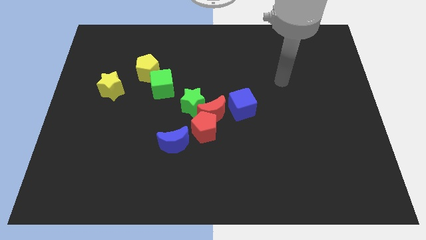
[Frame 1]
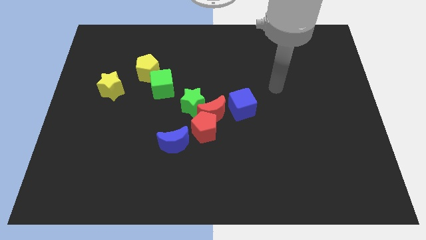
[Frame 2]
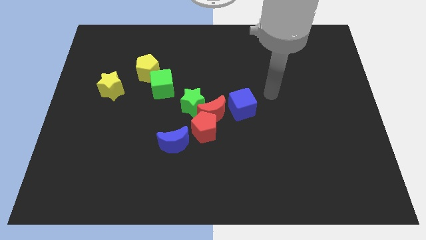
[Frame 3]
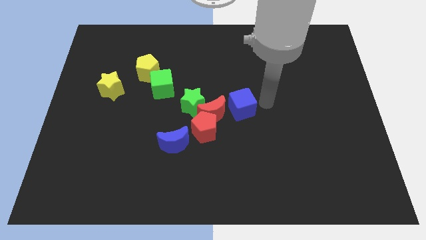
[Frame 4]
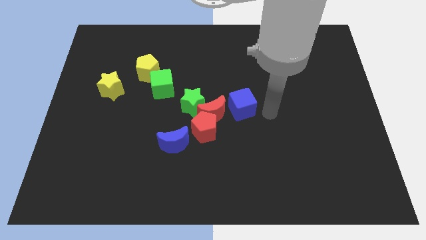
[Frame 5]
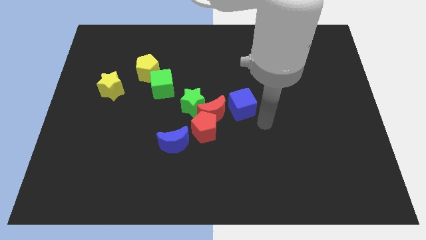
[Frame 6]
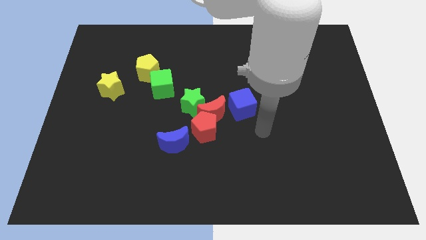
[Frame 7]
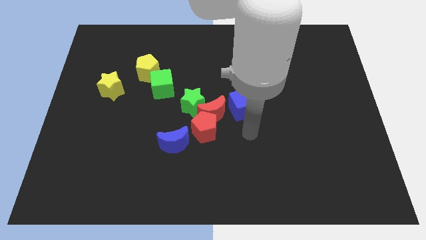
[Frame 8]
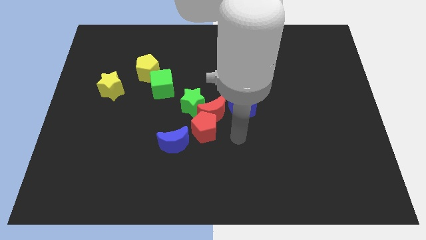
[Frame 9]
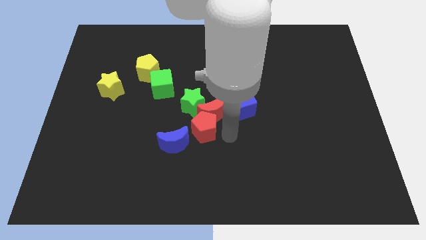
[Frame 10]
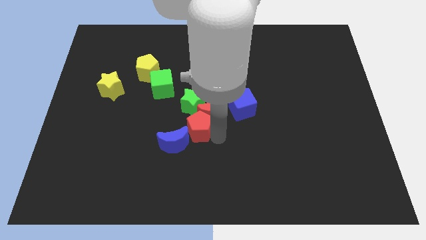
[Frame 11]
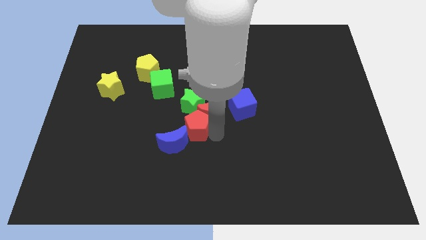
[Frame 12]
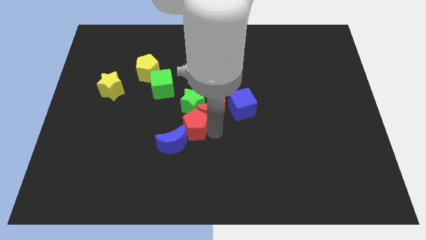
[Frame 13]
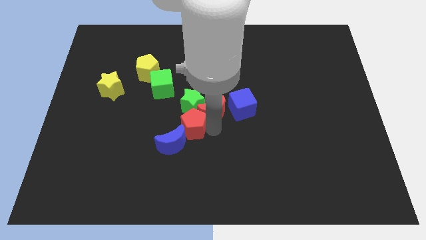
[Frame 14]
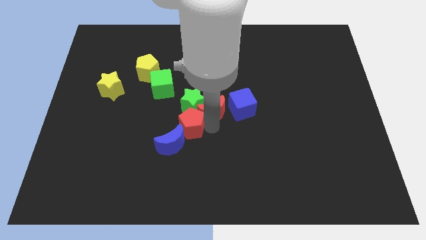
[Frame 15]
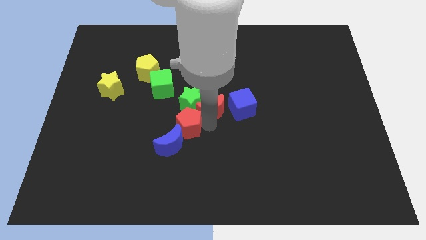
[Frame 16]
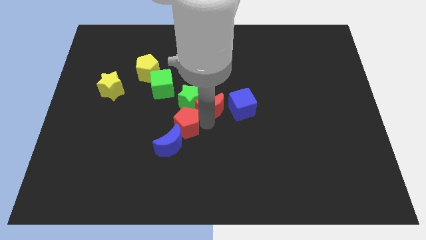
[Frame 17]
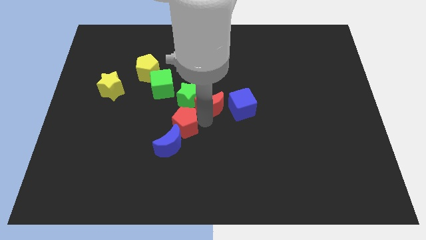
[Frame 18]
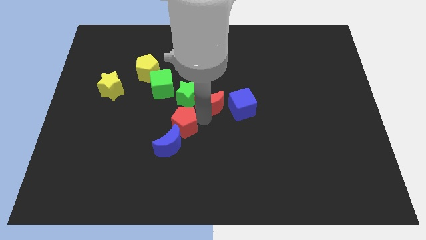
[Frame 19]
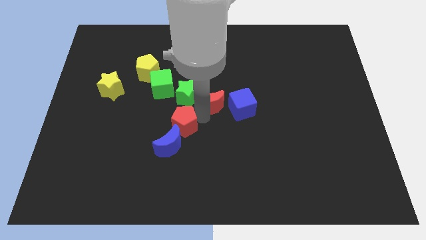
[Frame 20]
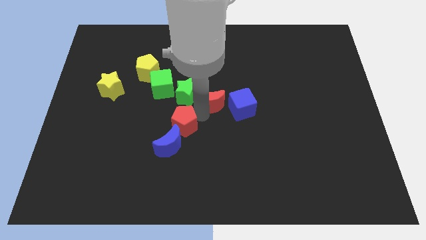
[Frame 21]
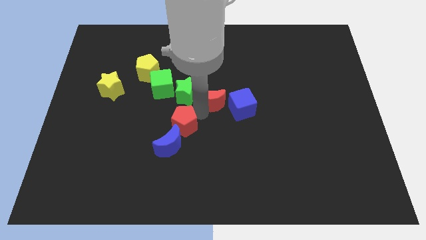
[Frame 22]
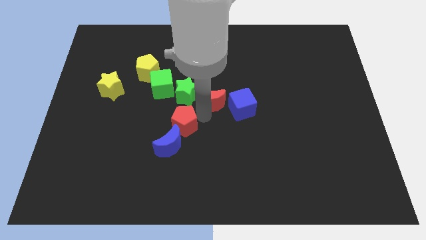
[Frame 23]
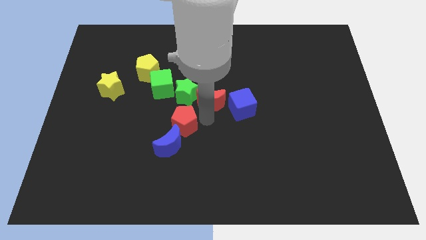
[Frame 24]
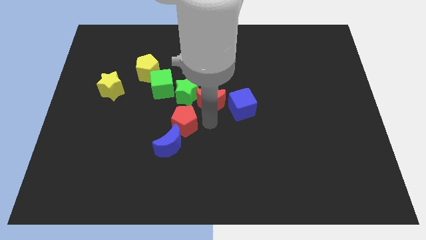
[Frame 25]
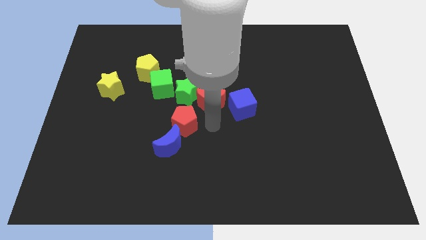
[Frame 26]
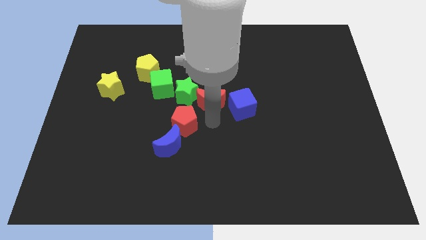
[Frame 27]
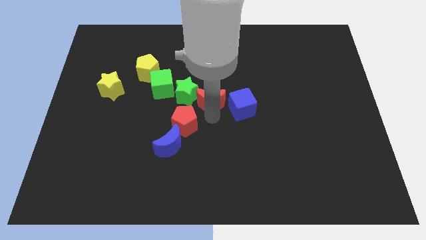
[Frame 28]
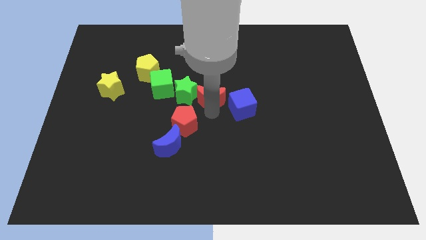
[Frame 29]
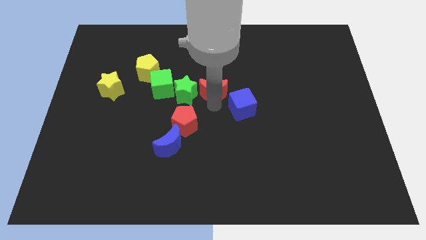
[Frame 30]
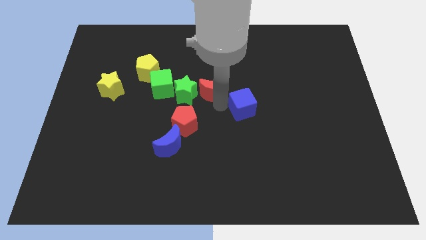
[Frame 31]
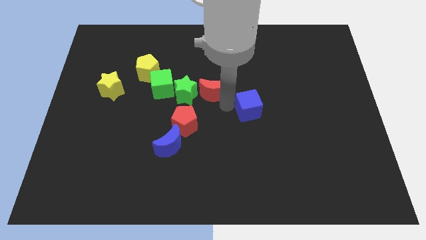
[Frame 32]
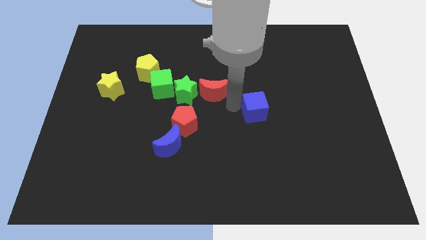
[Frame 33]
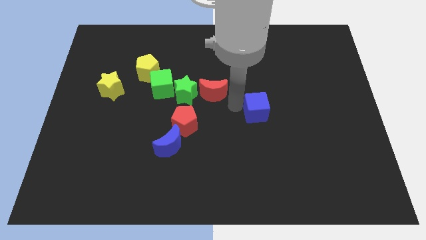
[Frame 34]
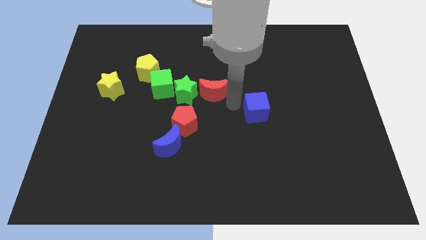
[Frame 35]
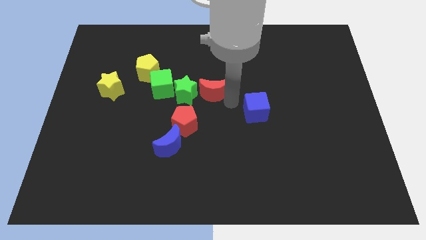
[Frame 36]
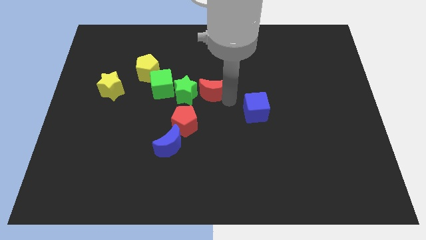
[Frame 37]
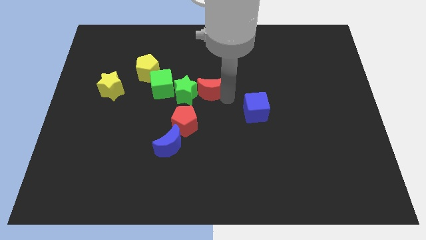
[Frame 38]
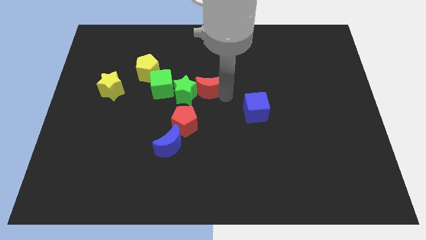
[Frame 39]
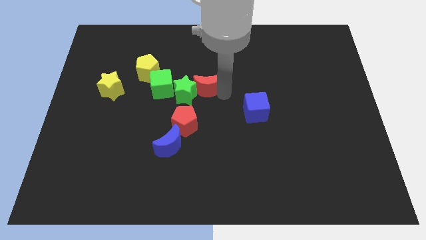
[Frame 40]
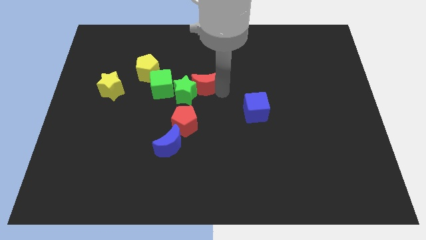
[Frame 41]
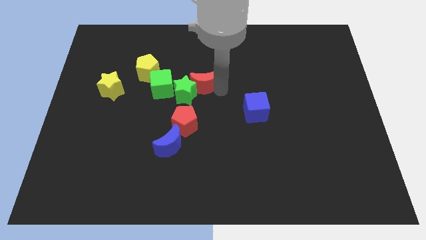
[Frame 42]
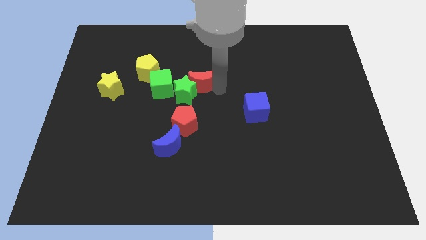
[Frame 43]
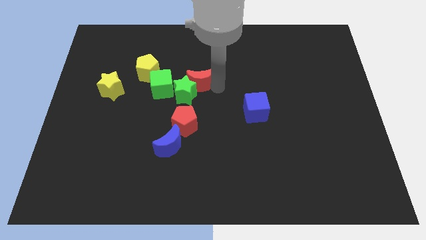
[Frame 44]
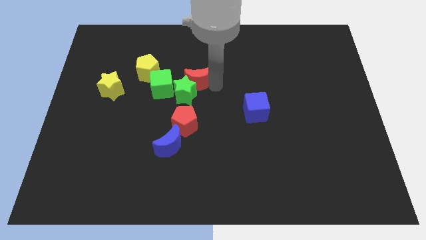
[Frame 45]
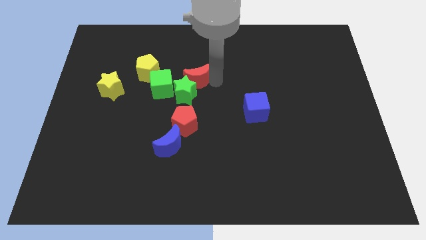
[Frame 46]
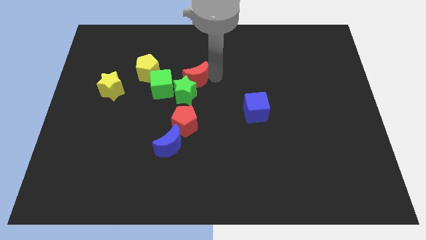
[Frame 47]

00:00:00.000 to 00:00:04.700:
move the red moon away from the group

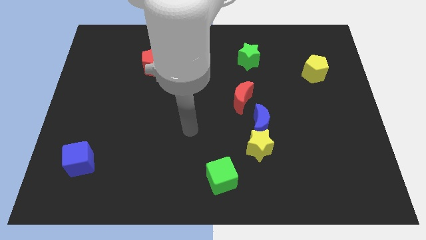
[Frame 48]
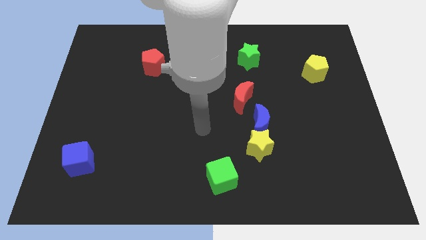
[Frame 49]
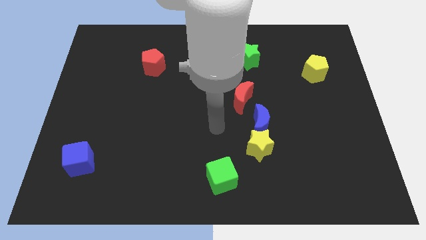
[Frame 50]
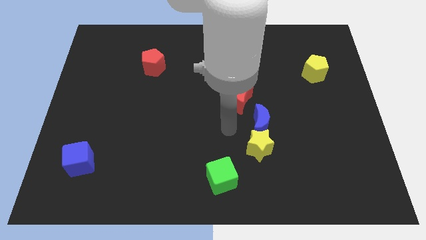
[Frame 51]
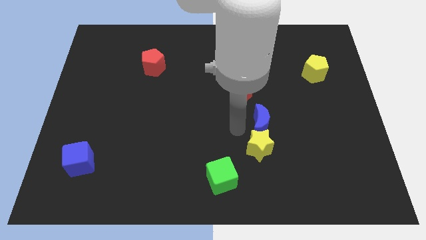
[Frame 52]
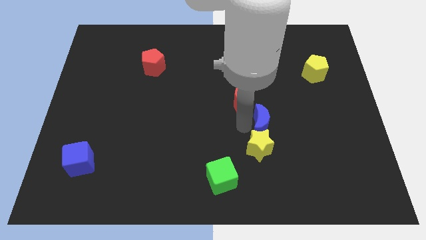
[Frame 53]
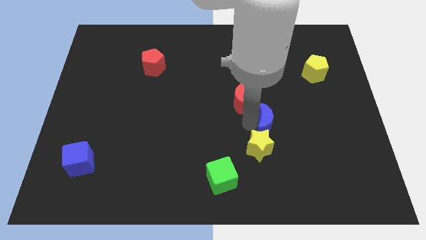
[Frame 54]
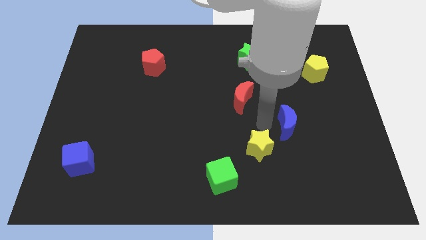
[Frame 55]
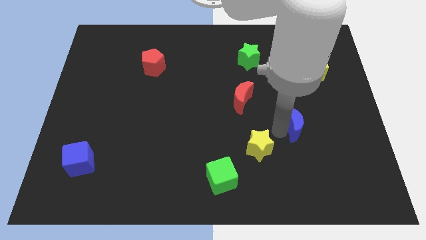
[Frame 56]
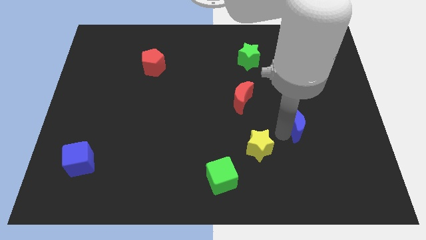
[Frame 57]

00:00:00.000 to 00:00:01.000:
separate the yellow star from the blue moon

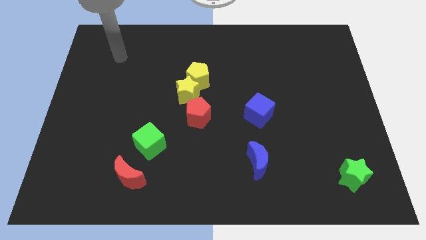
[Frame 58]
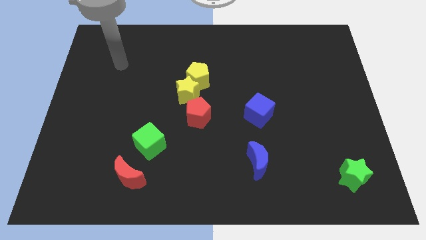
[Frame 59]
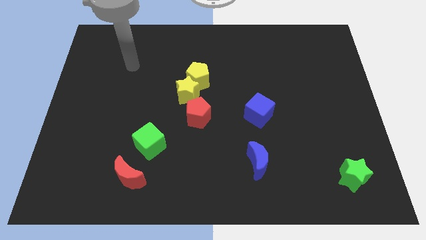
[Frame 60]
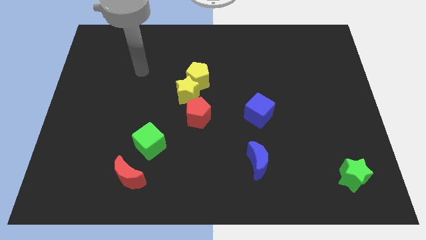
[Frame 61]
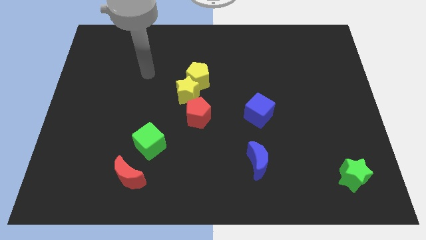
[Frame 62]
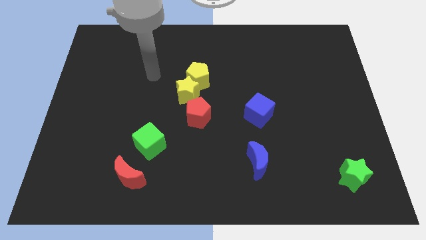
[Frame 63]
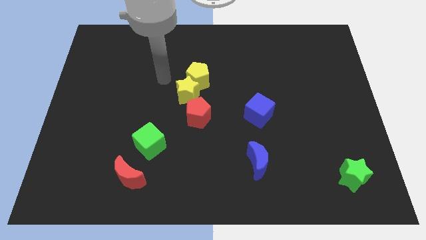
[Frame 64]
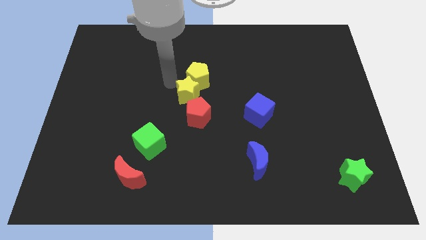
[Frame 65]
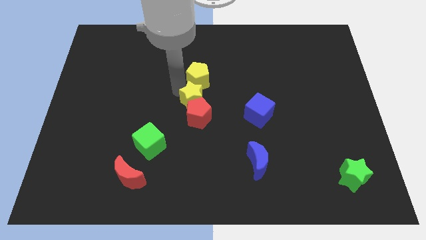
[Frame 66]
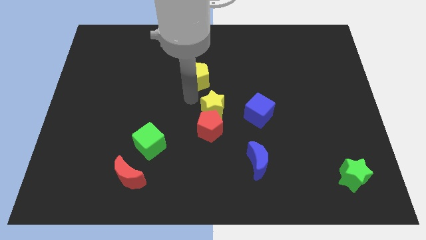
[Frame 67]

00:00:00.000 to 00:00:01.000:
separate the yellow pentagon from the yellow star

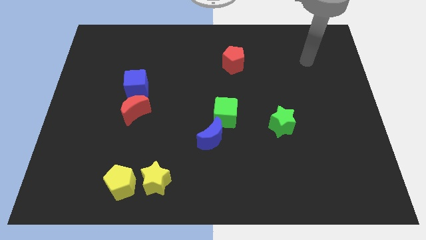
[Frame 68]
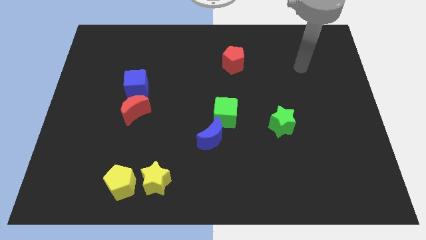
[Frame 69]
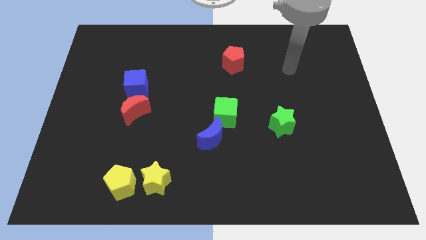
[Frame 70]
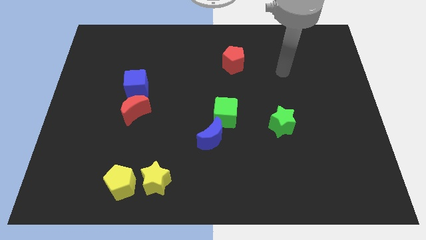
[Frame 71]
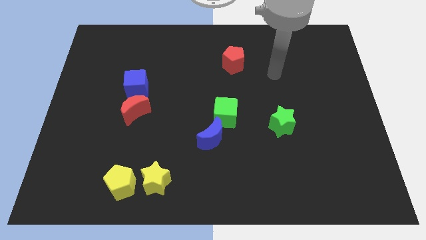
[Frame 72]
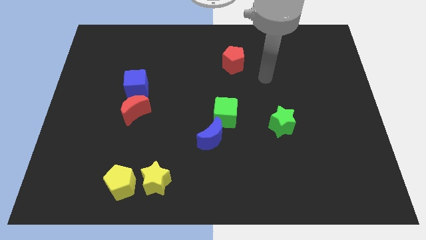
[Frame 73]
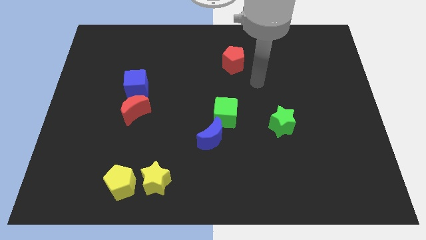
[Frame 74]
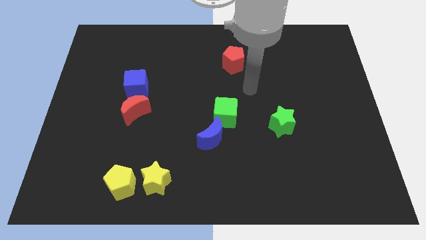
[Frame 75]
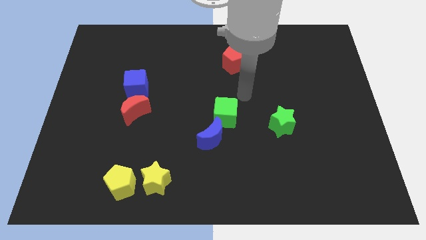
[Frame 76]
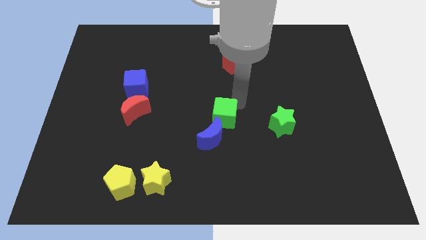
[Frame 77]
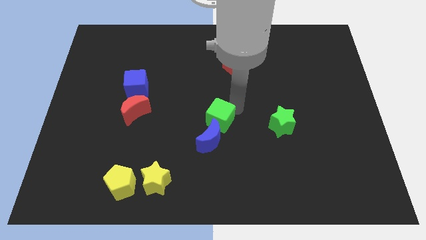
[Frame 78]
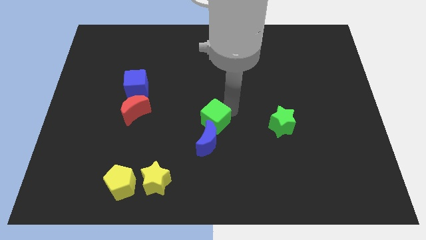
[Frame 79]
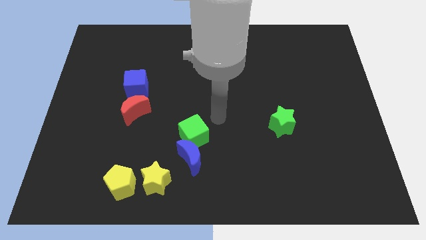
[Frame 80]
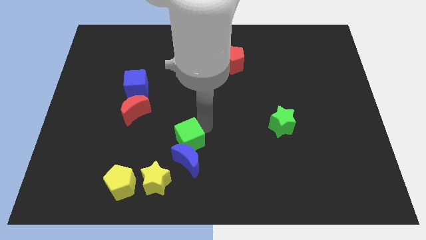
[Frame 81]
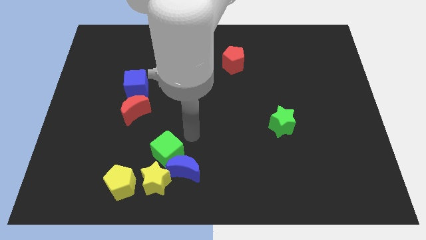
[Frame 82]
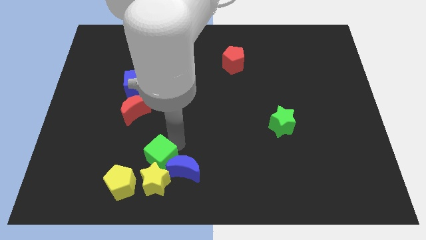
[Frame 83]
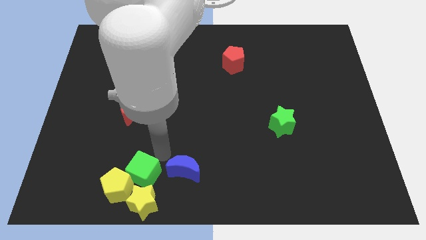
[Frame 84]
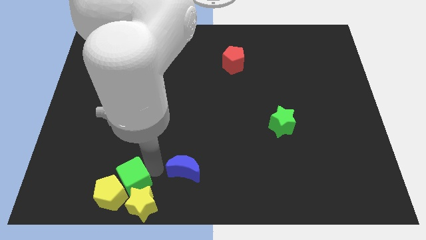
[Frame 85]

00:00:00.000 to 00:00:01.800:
separate the blue moon from the green cube

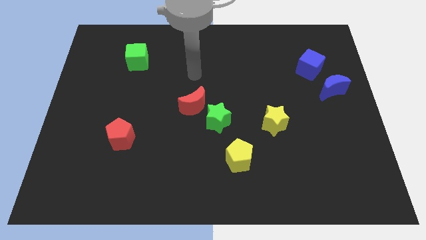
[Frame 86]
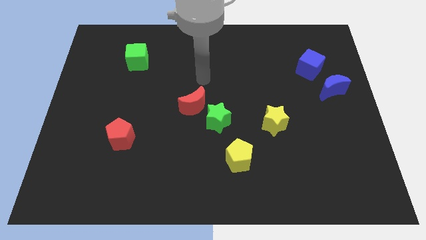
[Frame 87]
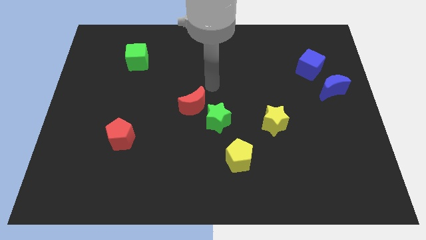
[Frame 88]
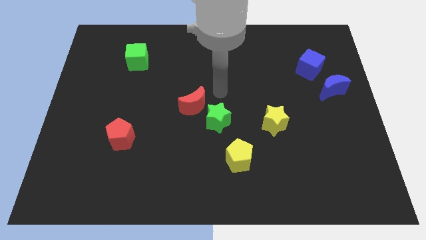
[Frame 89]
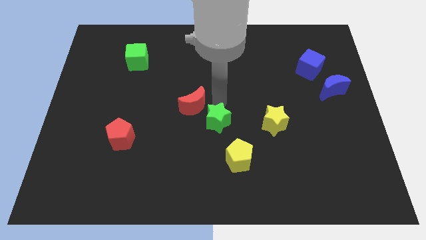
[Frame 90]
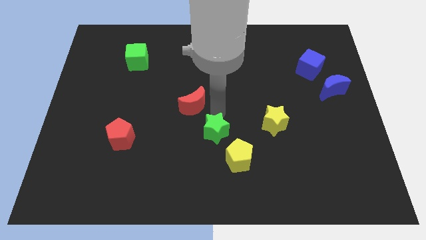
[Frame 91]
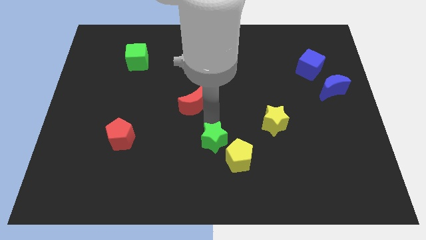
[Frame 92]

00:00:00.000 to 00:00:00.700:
pull the red moon apart from the green star

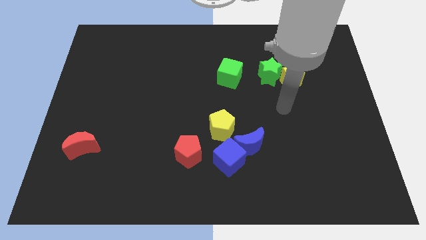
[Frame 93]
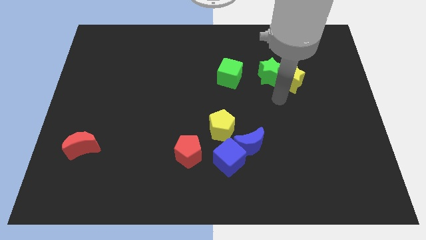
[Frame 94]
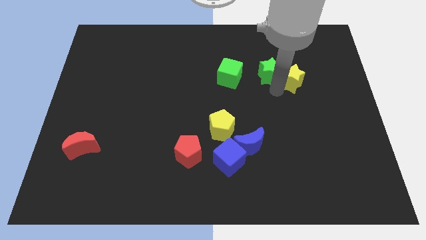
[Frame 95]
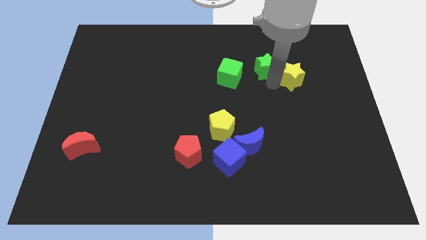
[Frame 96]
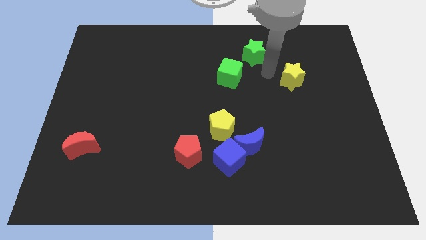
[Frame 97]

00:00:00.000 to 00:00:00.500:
pull the yellow star apart from the green star
